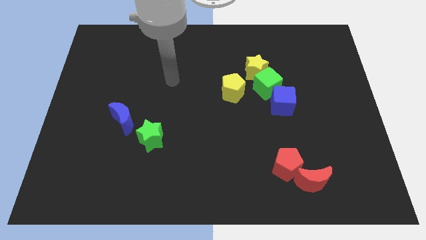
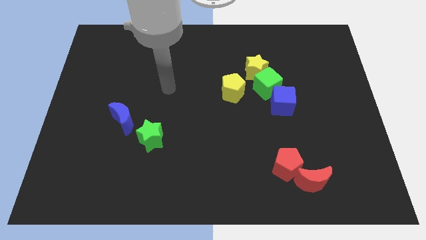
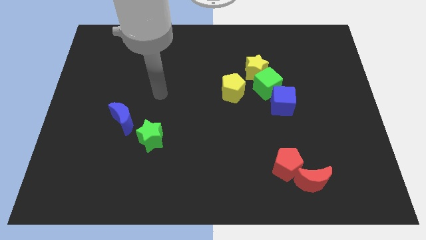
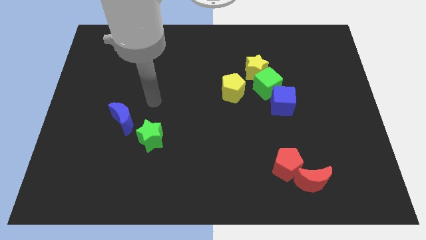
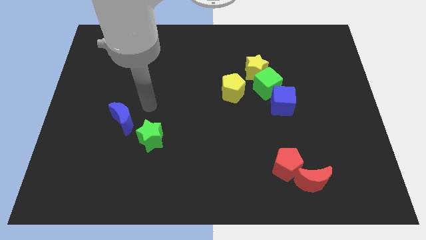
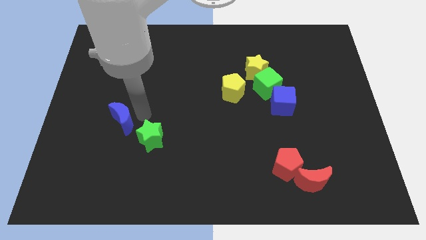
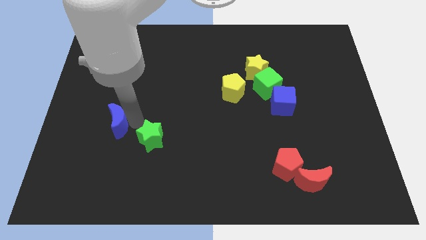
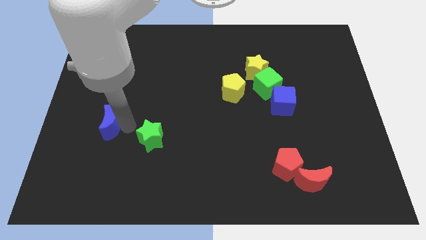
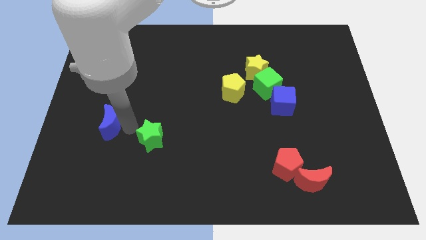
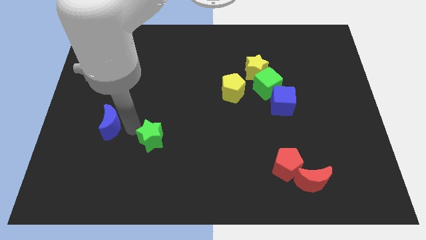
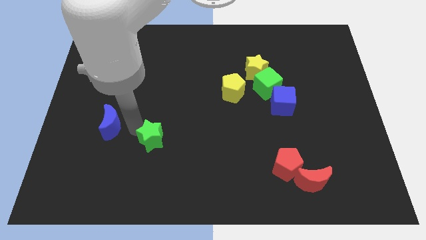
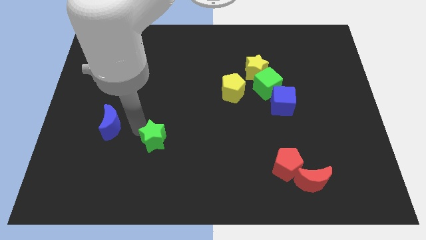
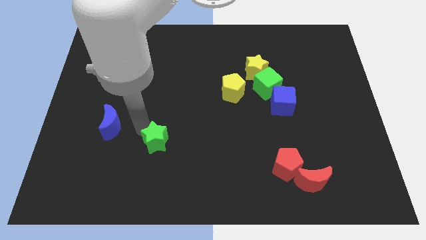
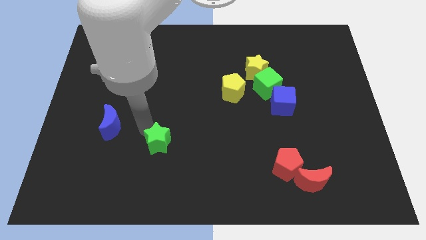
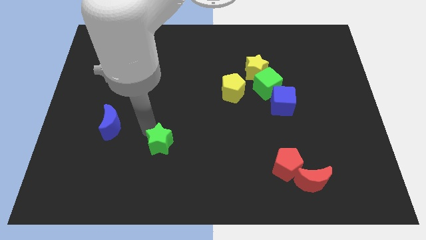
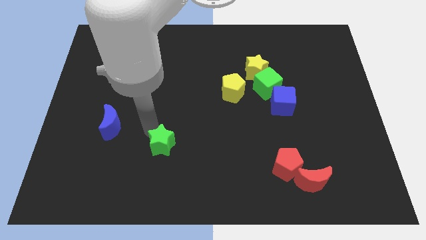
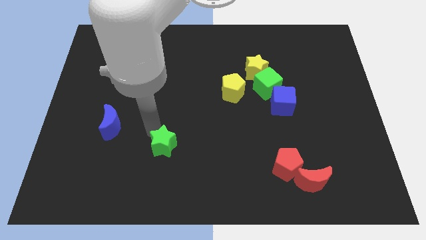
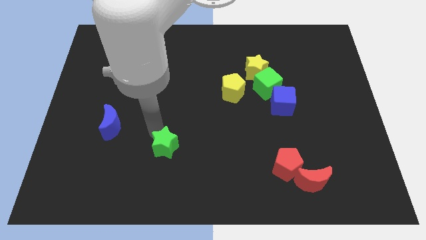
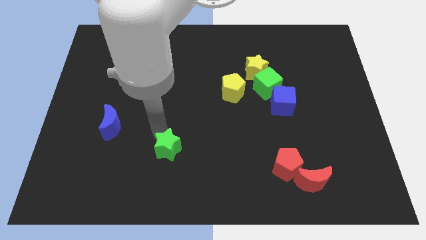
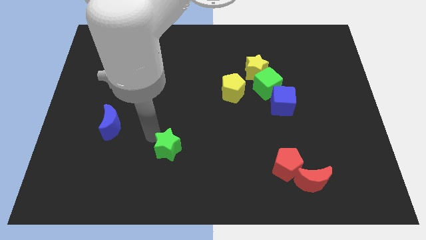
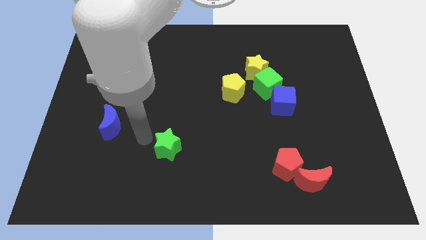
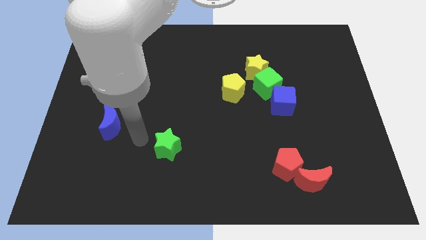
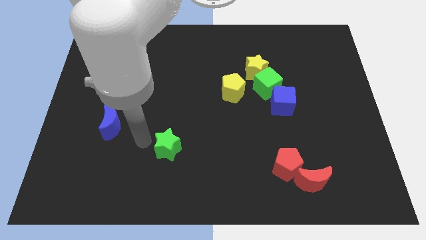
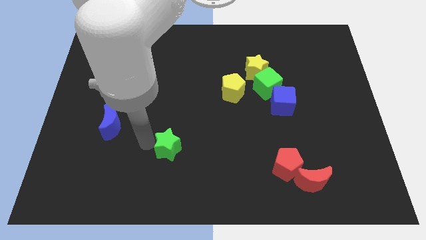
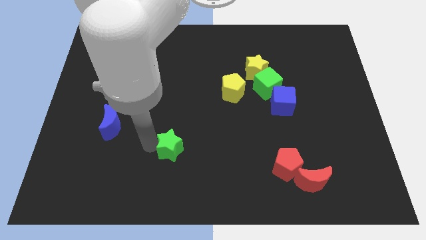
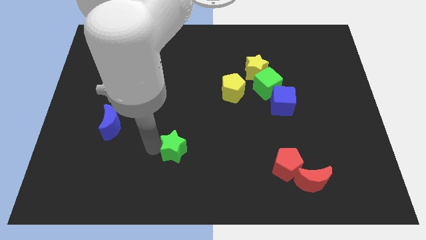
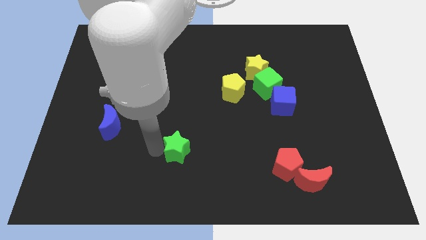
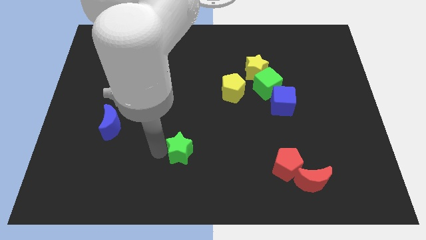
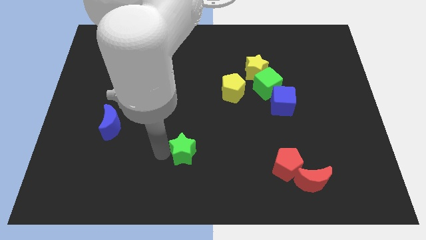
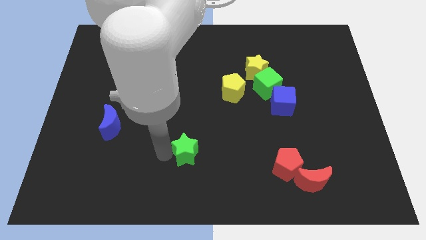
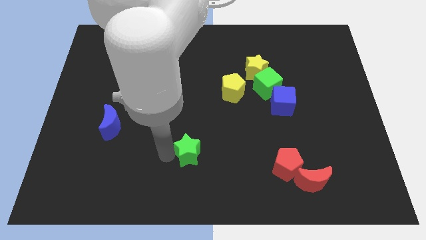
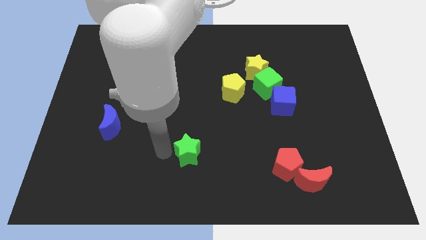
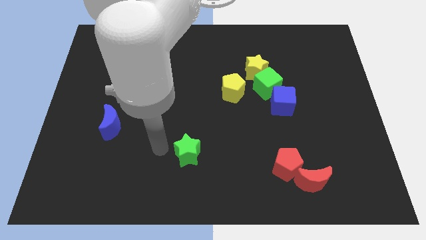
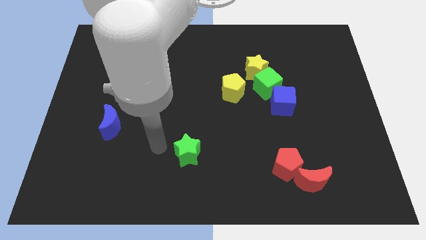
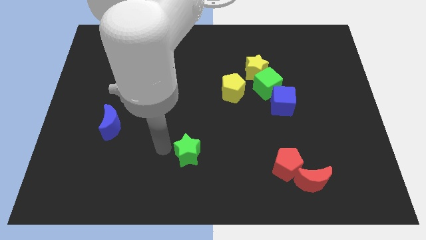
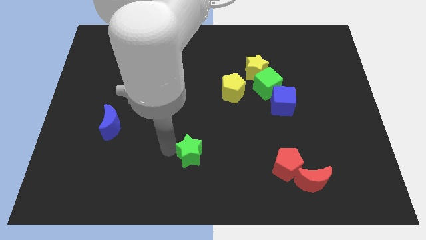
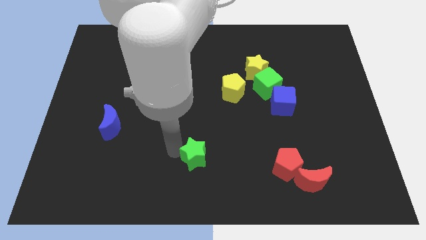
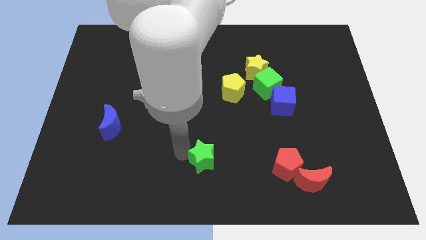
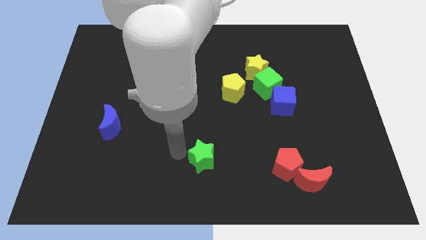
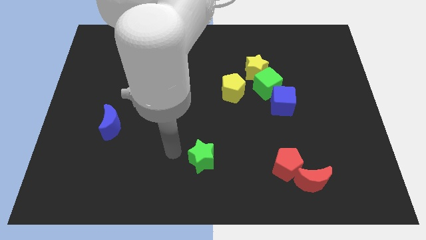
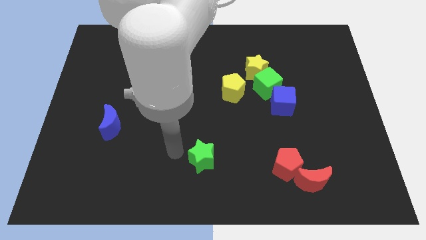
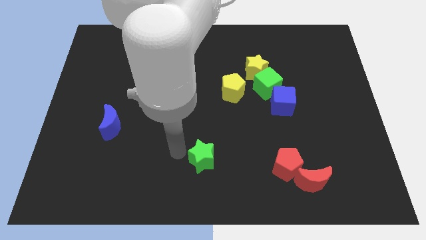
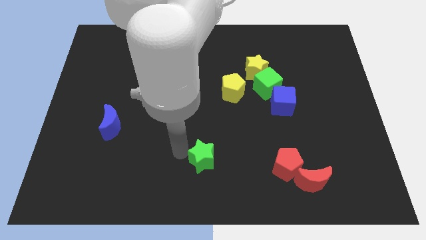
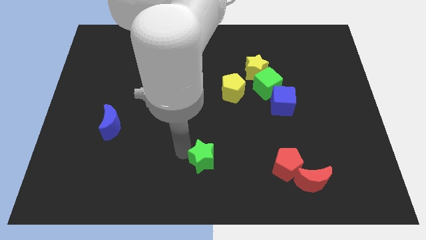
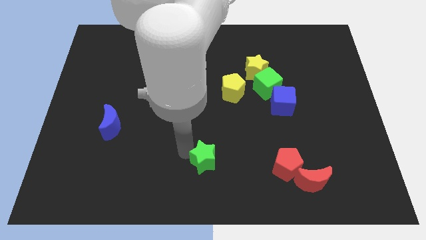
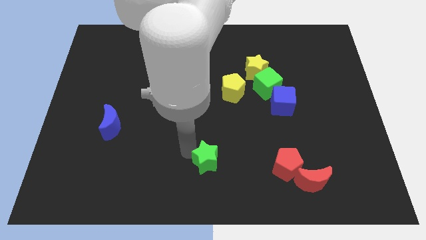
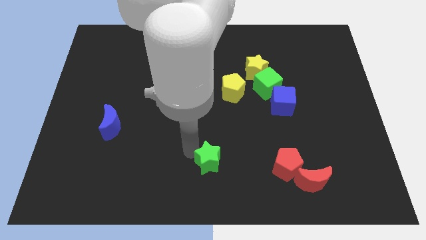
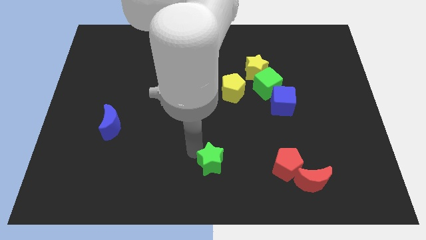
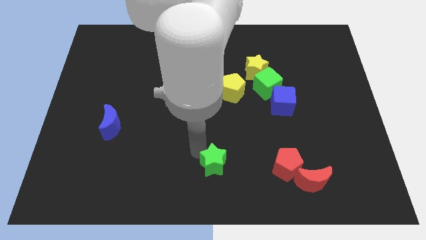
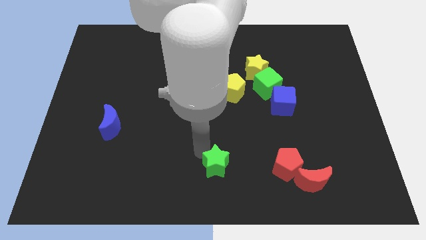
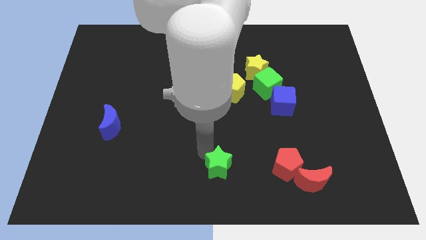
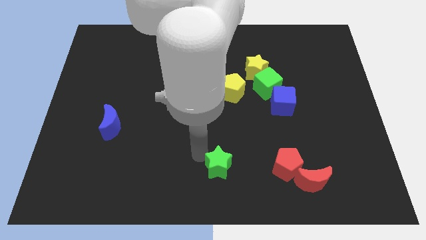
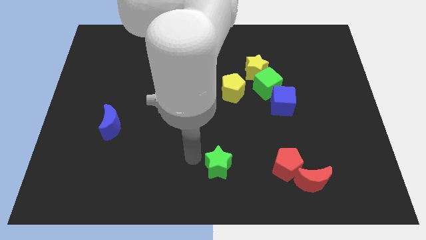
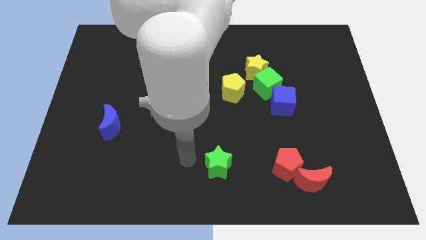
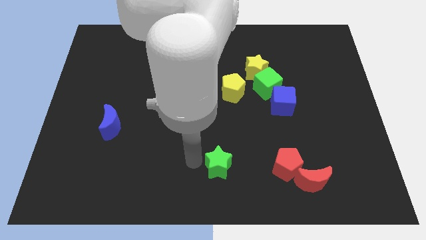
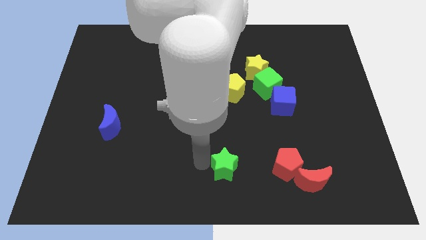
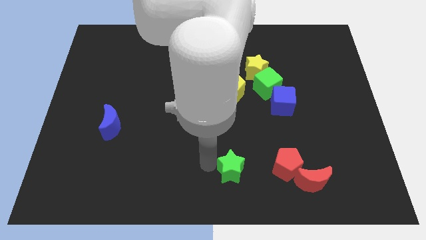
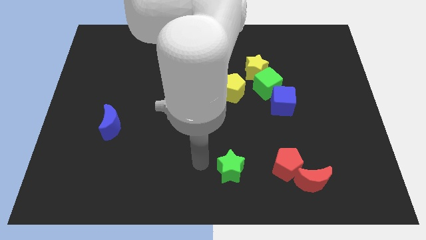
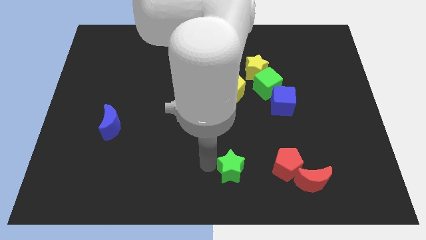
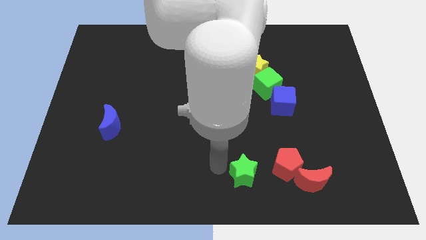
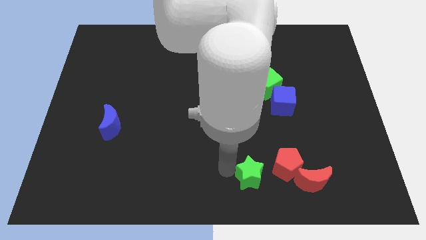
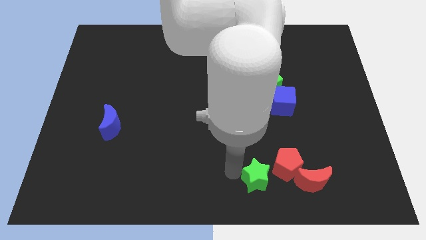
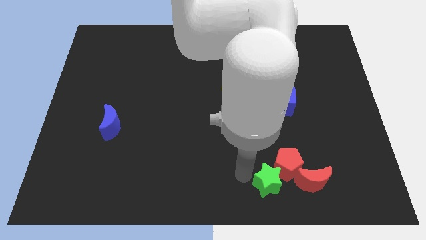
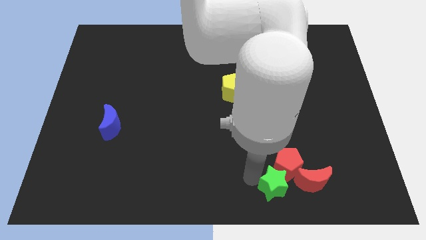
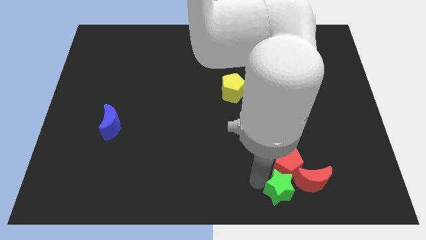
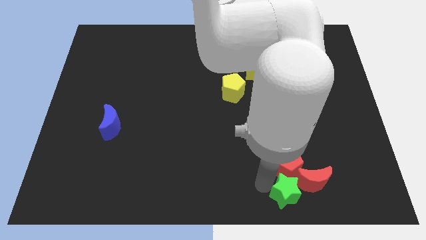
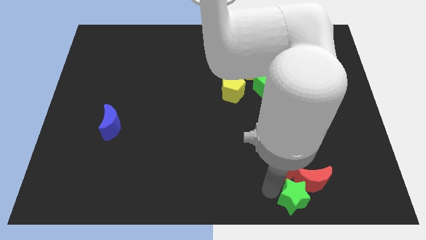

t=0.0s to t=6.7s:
push the green star close to the red moon

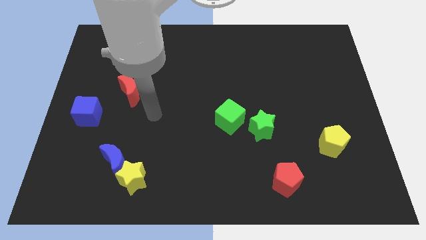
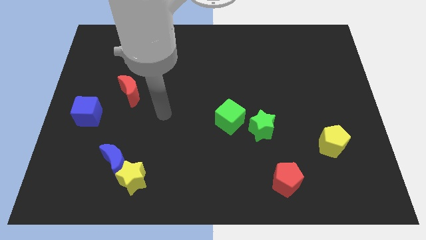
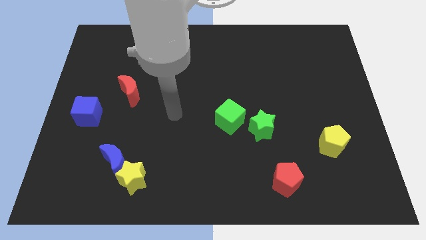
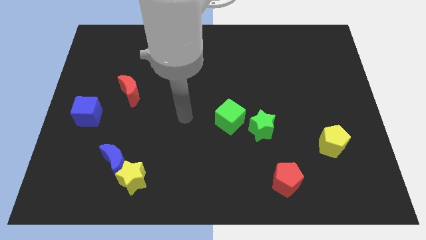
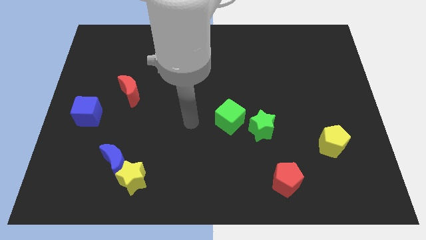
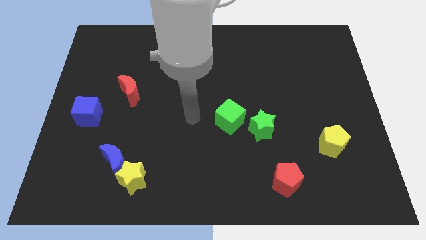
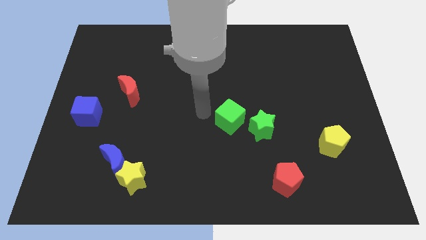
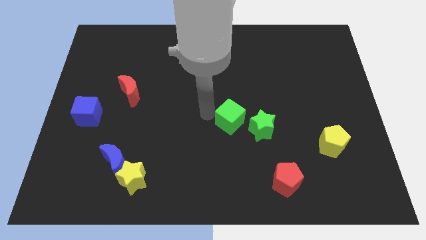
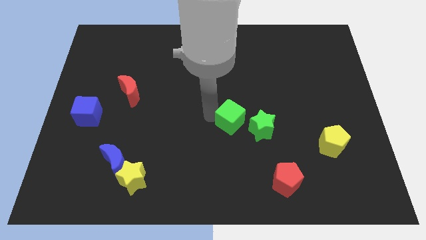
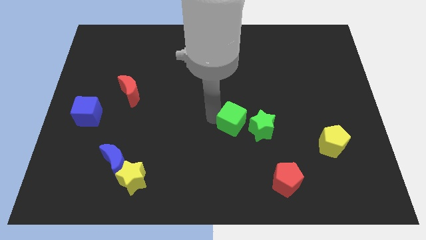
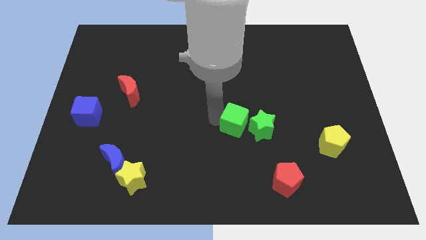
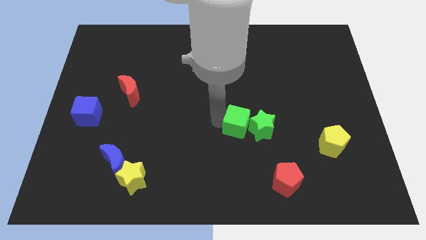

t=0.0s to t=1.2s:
put the green cube close to the green star
